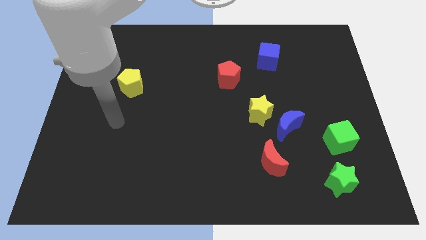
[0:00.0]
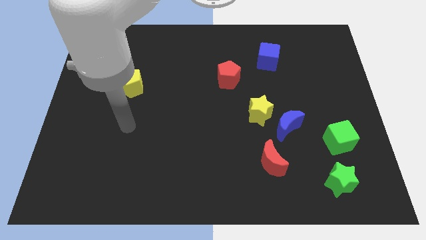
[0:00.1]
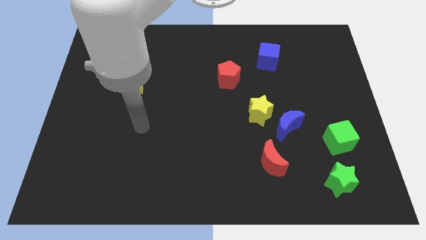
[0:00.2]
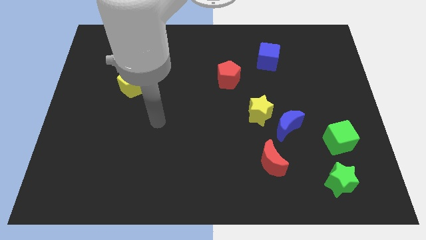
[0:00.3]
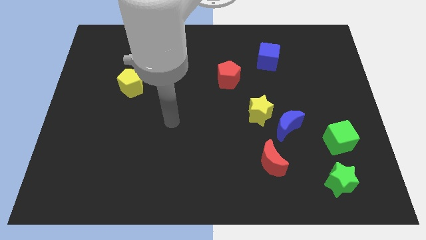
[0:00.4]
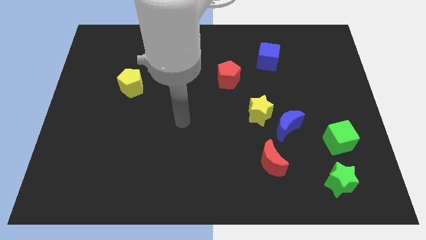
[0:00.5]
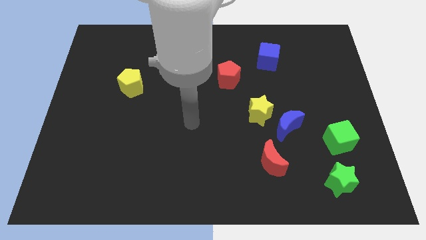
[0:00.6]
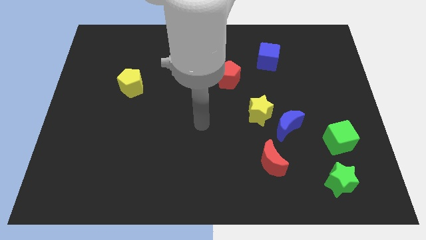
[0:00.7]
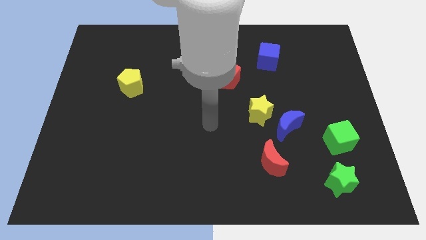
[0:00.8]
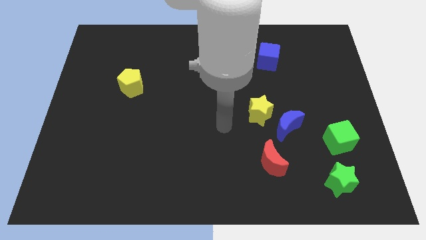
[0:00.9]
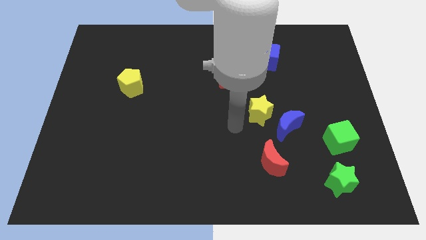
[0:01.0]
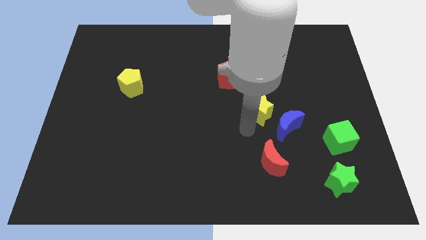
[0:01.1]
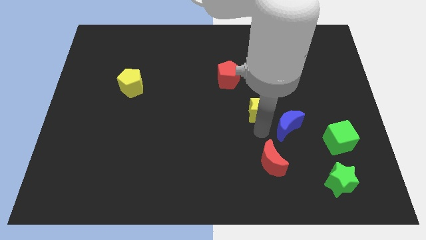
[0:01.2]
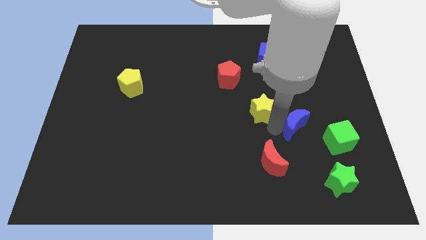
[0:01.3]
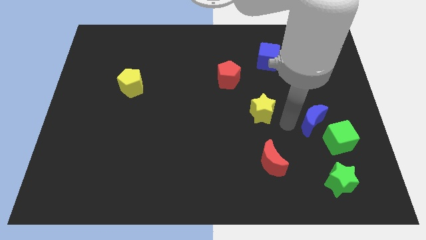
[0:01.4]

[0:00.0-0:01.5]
separate the yellow star from the blue moon

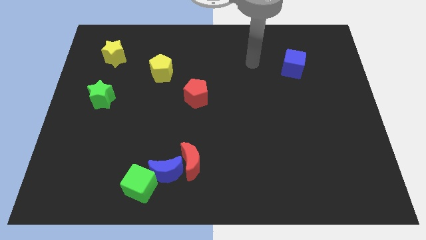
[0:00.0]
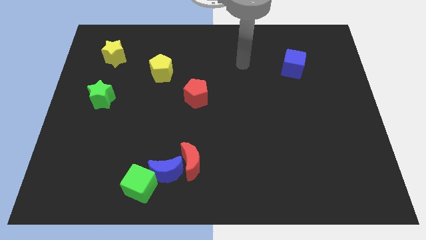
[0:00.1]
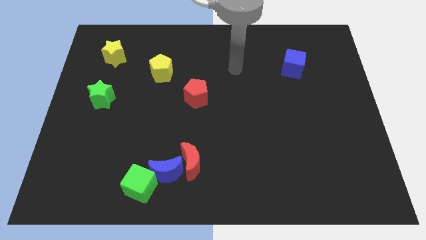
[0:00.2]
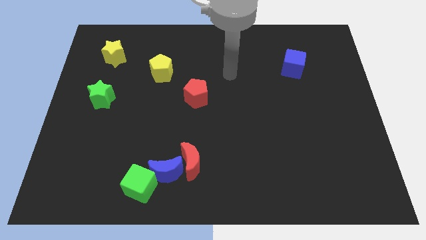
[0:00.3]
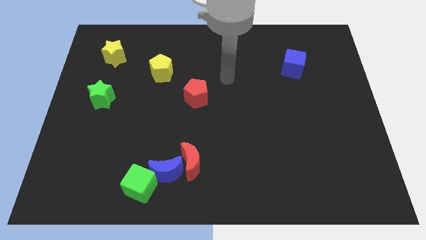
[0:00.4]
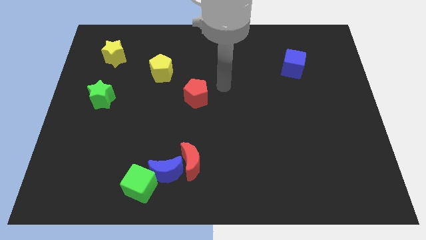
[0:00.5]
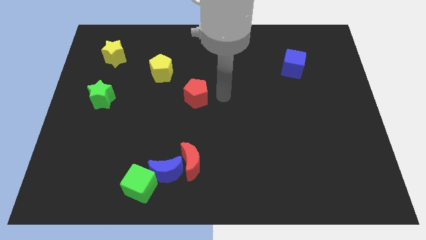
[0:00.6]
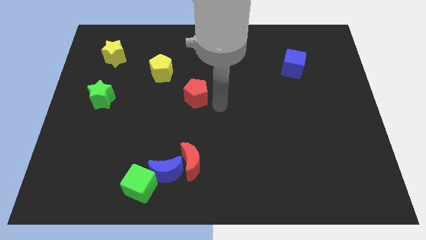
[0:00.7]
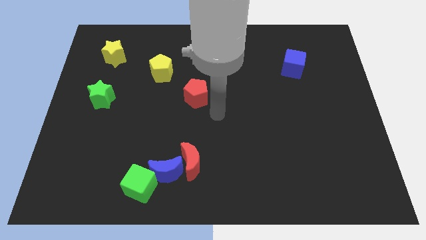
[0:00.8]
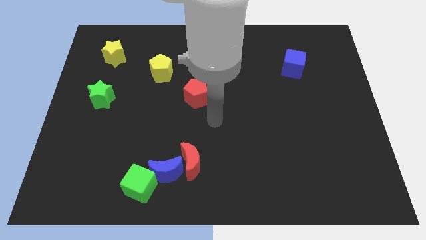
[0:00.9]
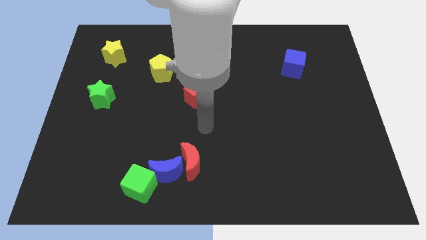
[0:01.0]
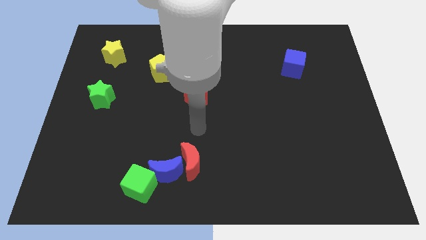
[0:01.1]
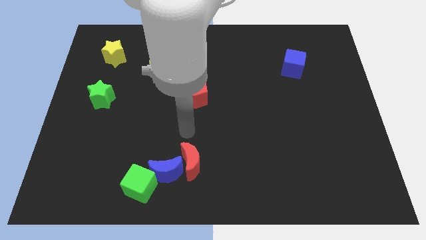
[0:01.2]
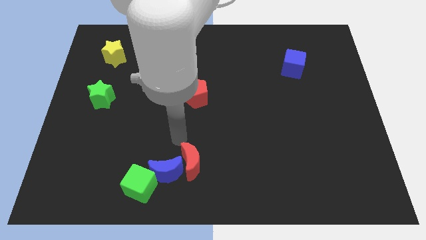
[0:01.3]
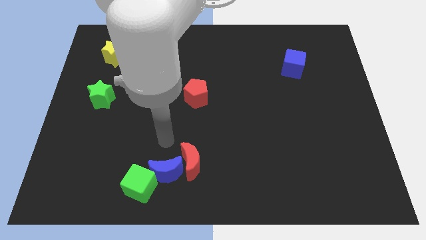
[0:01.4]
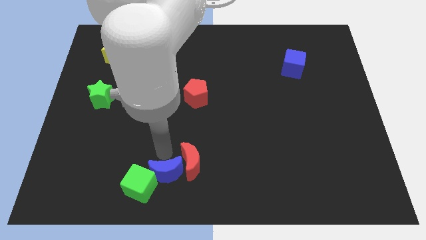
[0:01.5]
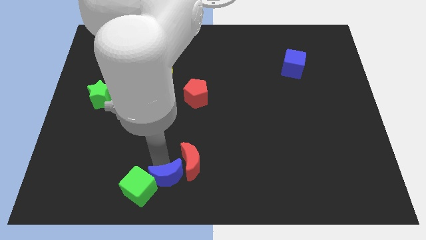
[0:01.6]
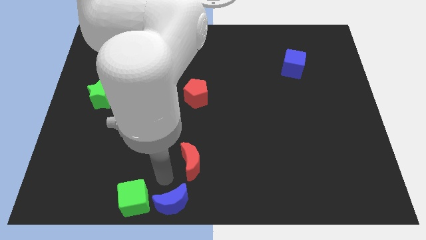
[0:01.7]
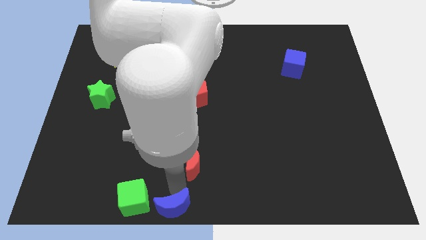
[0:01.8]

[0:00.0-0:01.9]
move the red moon away from the blue moon

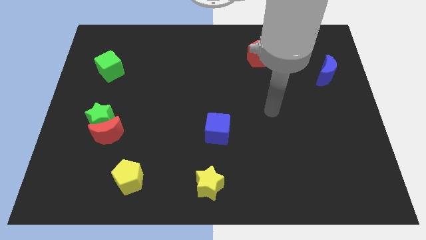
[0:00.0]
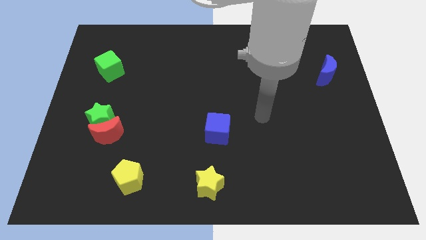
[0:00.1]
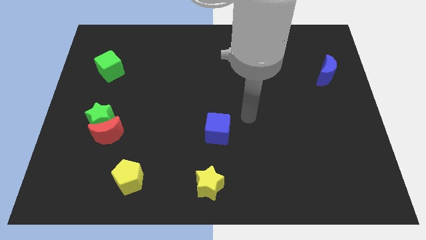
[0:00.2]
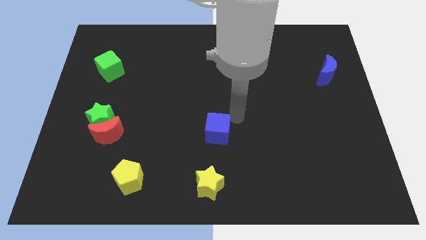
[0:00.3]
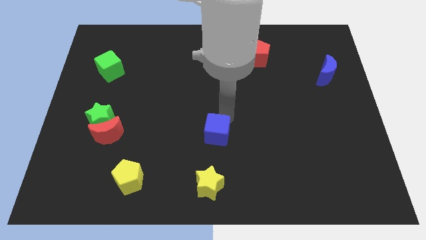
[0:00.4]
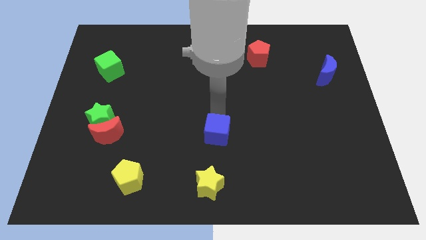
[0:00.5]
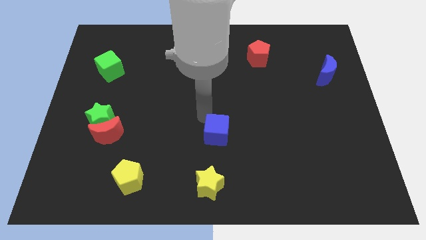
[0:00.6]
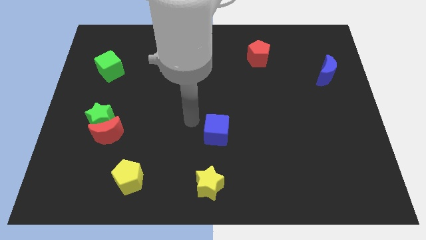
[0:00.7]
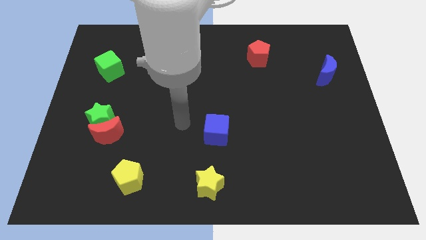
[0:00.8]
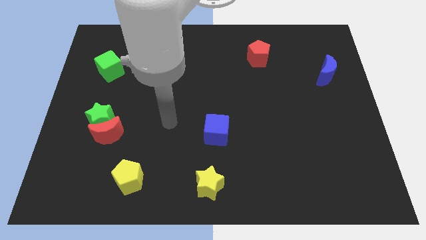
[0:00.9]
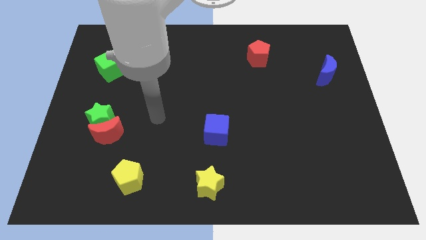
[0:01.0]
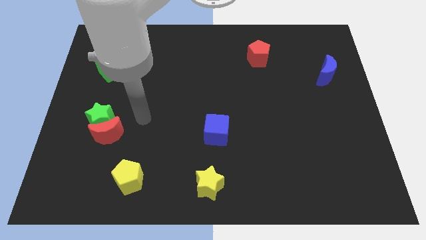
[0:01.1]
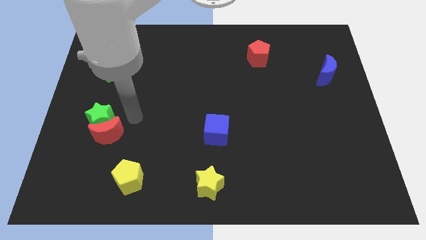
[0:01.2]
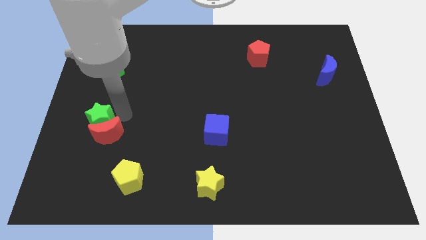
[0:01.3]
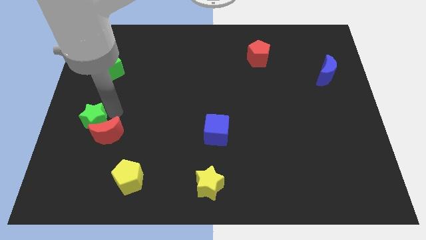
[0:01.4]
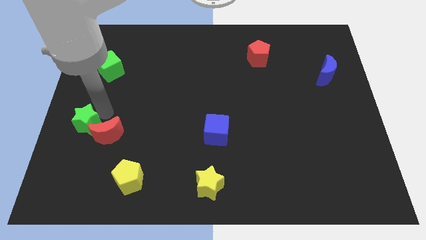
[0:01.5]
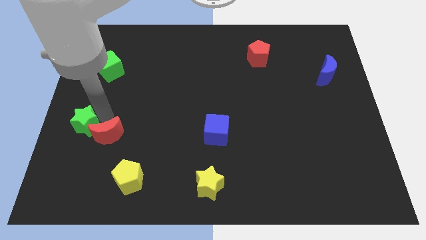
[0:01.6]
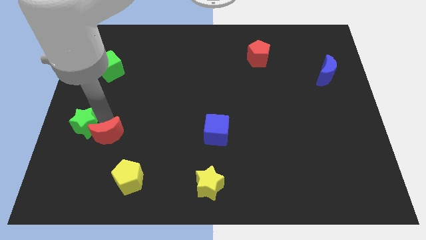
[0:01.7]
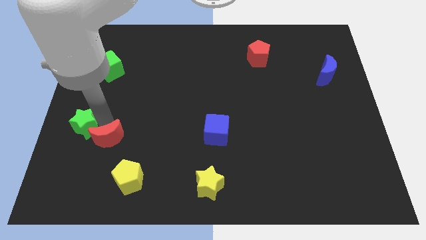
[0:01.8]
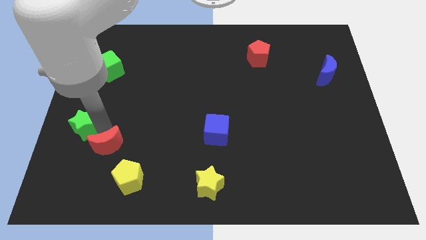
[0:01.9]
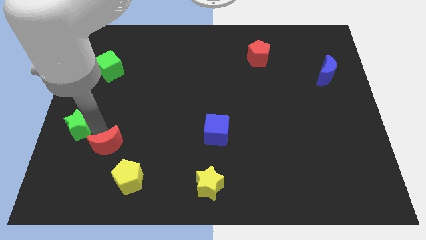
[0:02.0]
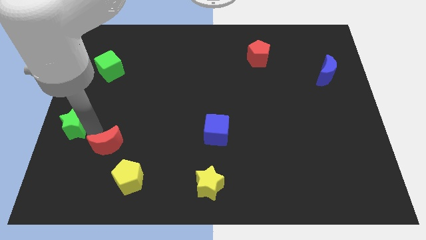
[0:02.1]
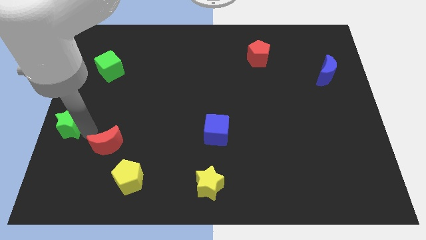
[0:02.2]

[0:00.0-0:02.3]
separate the red moon from the green star

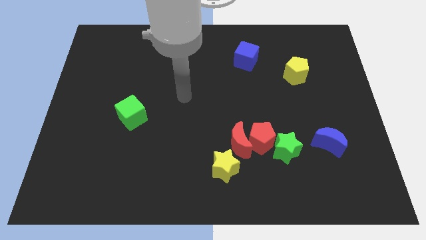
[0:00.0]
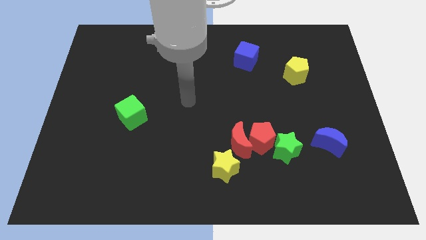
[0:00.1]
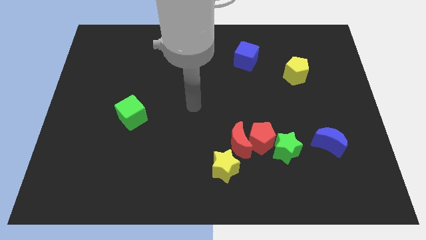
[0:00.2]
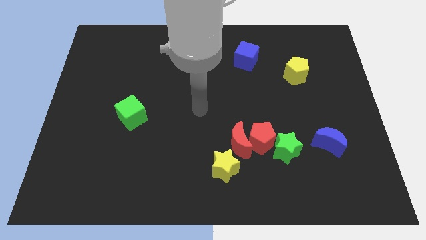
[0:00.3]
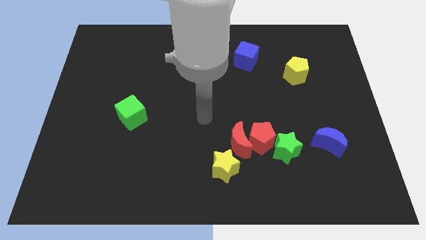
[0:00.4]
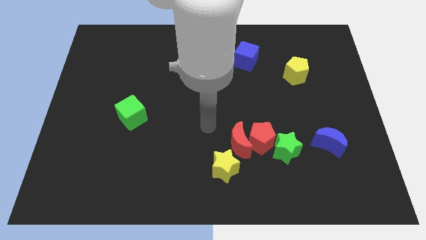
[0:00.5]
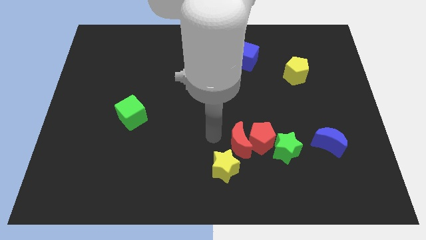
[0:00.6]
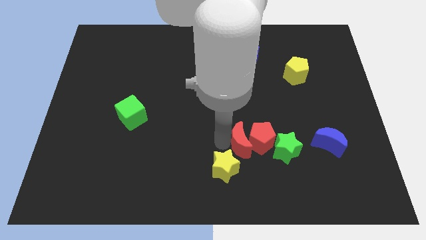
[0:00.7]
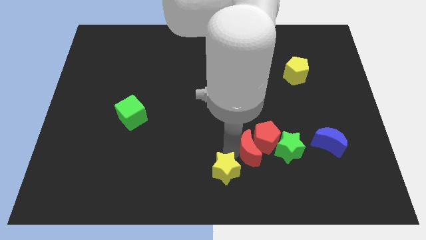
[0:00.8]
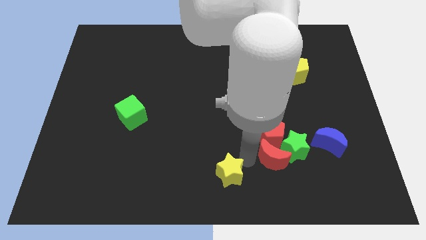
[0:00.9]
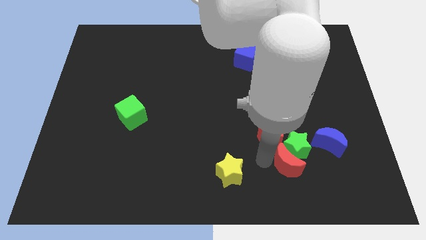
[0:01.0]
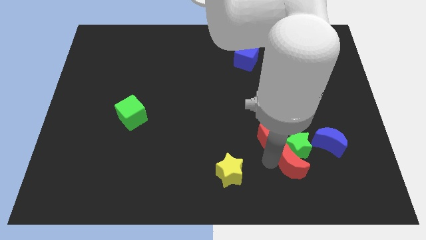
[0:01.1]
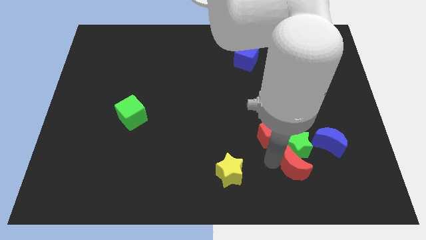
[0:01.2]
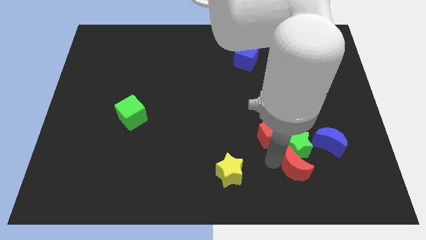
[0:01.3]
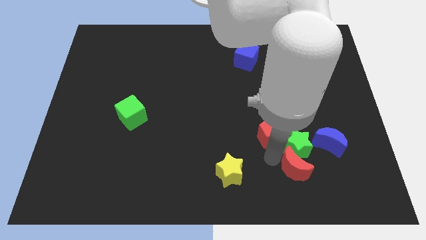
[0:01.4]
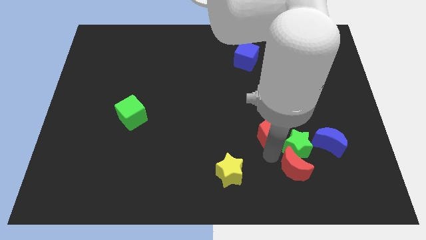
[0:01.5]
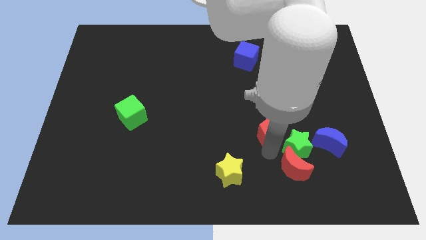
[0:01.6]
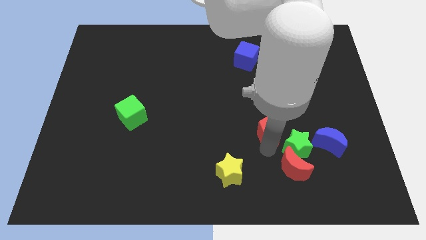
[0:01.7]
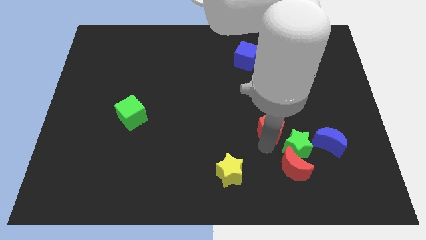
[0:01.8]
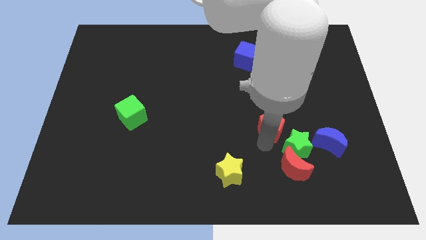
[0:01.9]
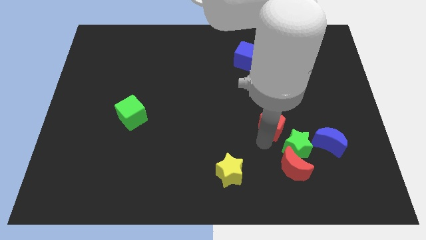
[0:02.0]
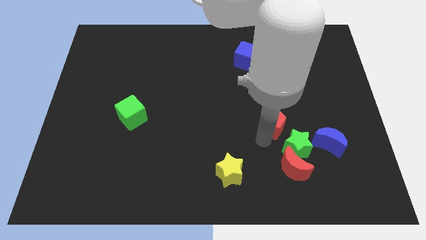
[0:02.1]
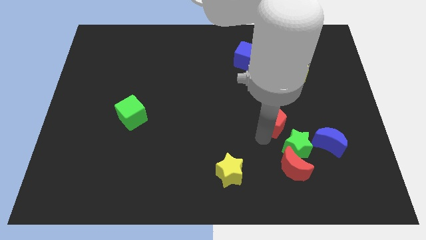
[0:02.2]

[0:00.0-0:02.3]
pull the red pentagon apart from the group

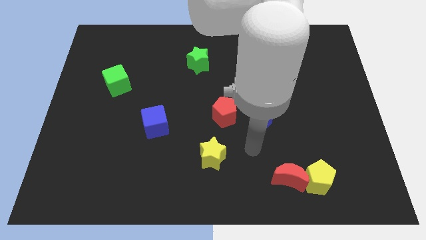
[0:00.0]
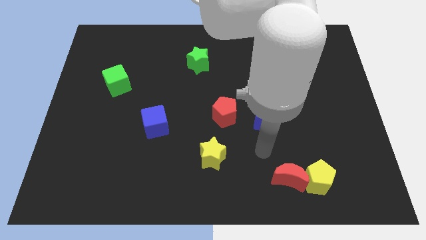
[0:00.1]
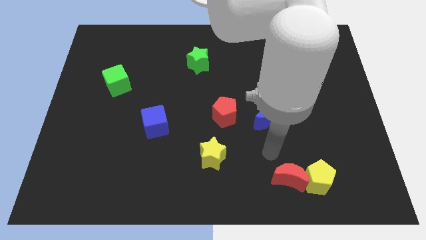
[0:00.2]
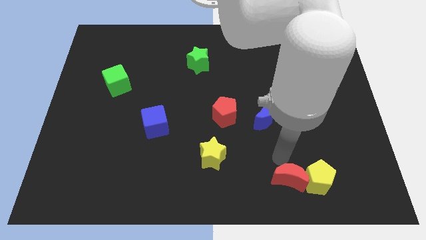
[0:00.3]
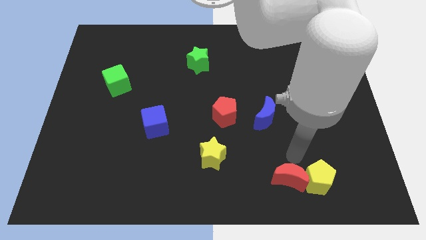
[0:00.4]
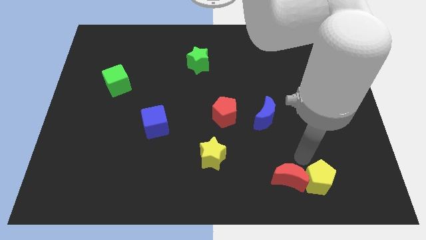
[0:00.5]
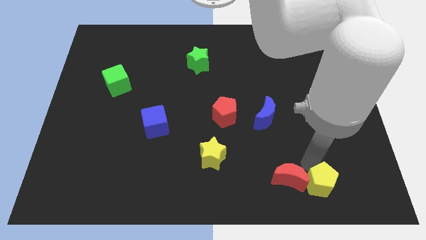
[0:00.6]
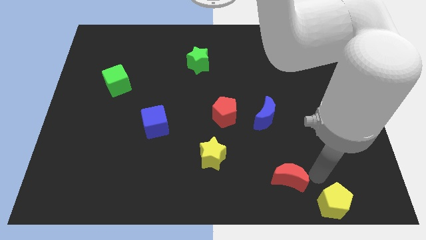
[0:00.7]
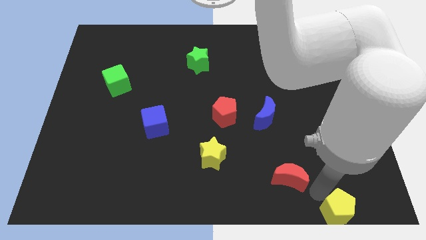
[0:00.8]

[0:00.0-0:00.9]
pull the red moon apart from the yellow pentagon

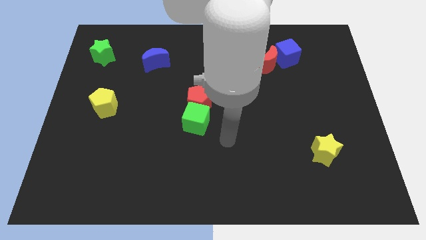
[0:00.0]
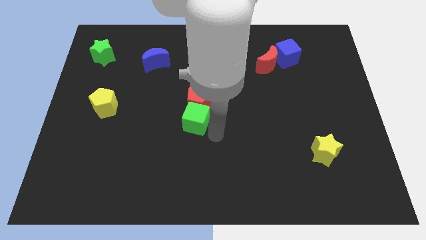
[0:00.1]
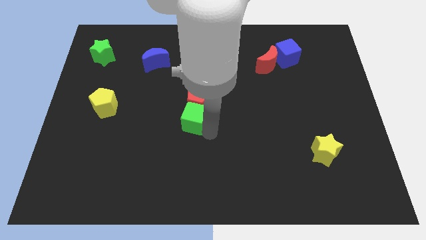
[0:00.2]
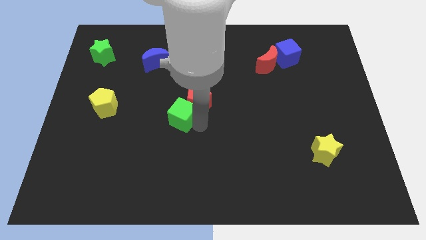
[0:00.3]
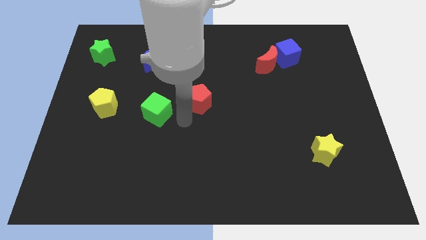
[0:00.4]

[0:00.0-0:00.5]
separate the red pentagon from the green cube
